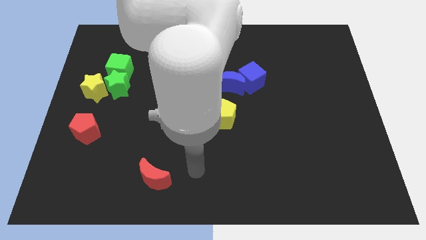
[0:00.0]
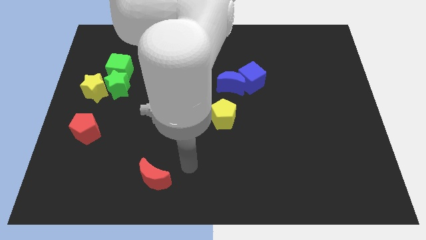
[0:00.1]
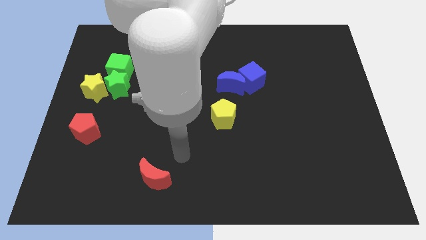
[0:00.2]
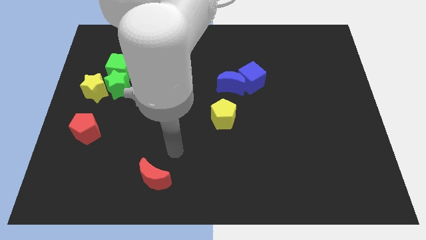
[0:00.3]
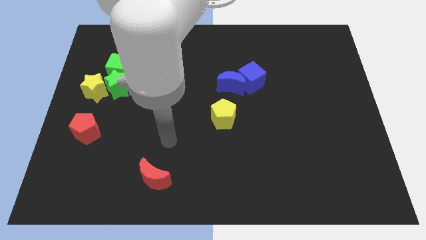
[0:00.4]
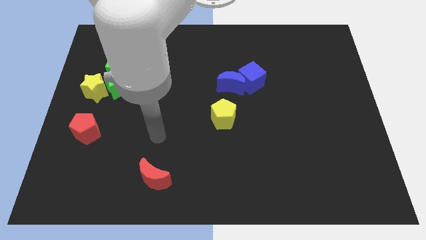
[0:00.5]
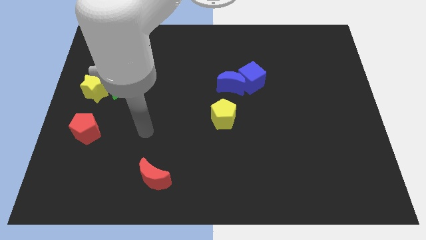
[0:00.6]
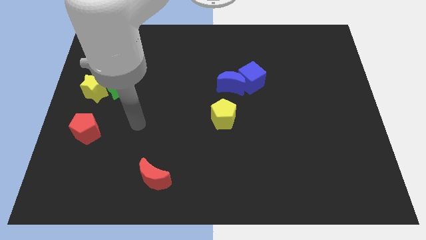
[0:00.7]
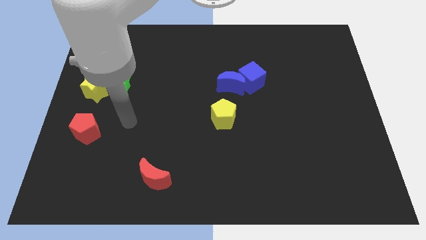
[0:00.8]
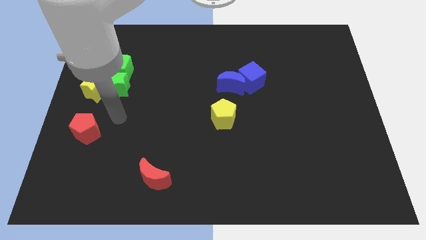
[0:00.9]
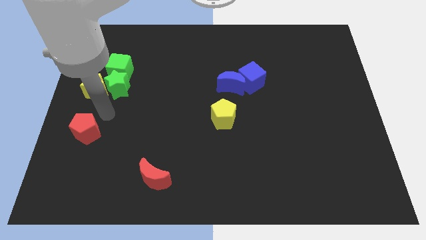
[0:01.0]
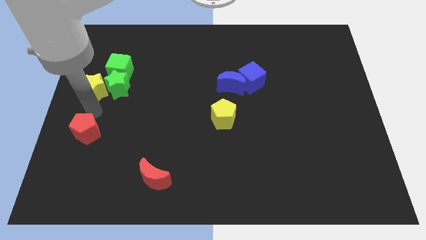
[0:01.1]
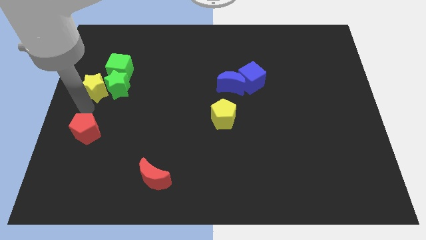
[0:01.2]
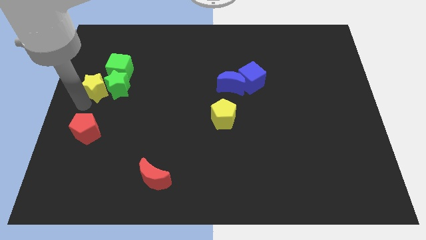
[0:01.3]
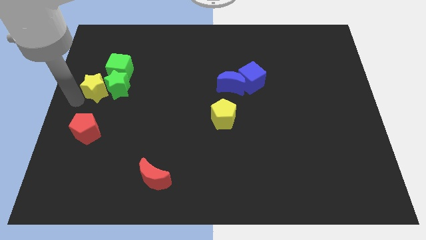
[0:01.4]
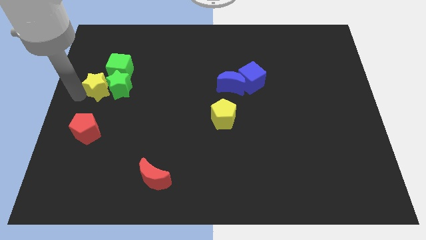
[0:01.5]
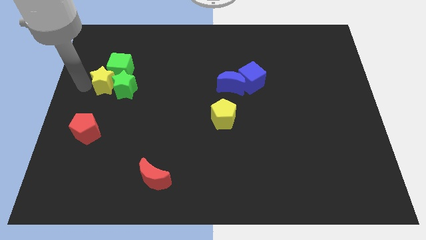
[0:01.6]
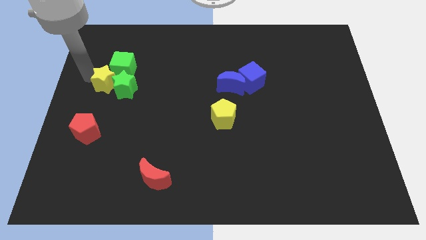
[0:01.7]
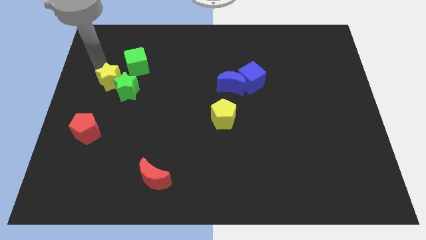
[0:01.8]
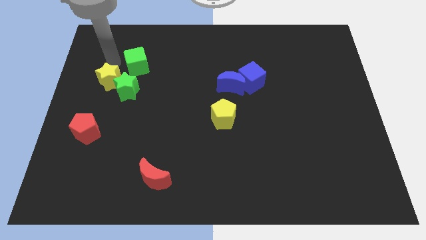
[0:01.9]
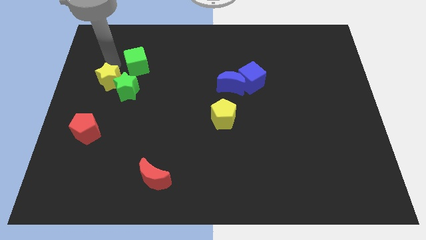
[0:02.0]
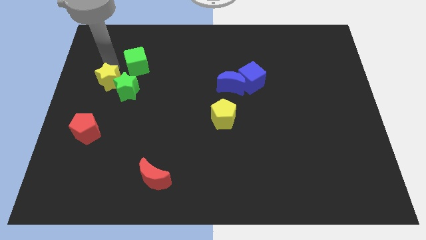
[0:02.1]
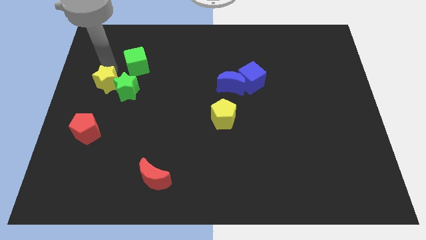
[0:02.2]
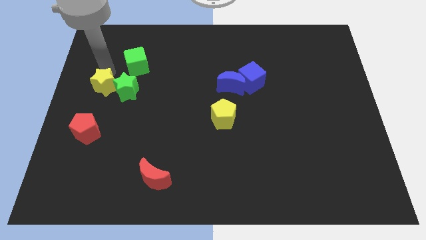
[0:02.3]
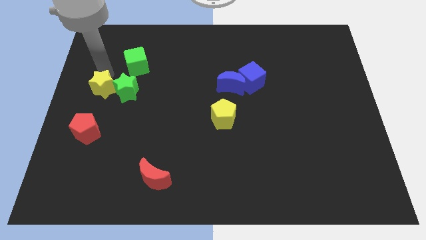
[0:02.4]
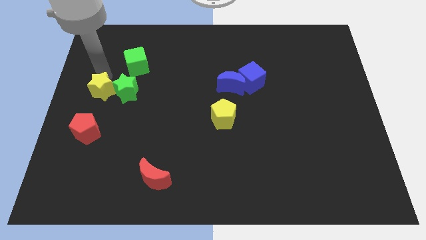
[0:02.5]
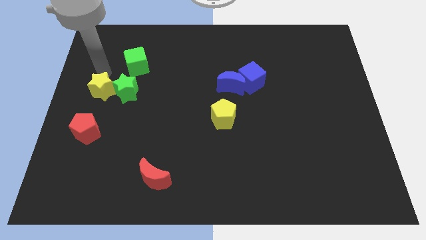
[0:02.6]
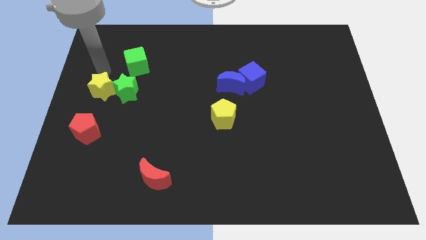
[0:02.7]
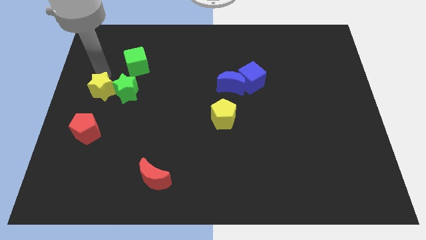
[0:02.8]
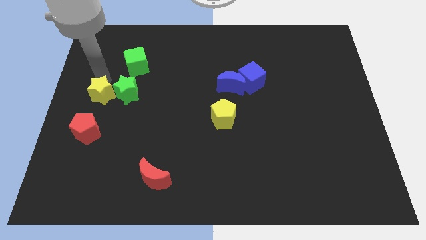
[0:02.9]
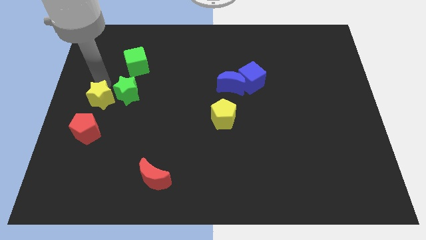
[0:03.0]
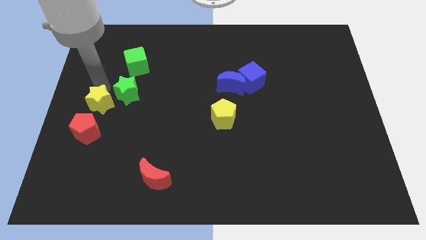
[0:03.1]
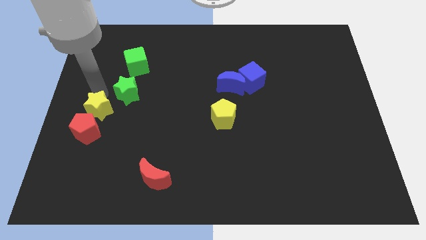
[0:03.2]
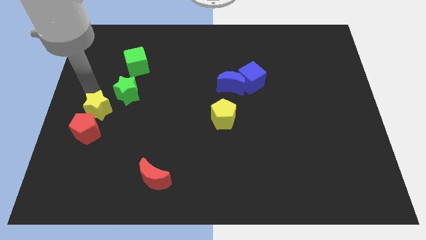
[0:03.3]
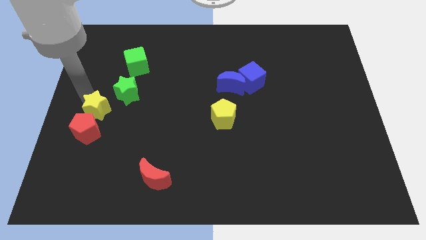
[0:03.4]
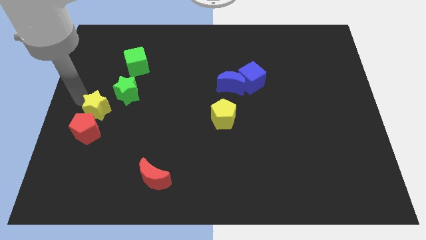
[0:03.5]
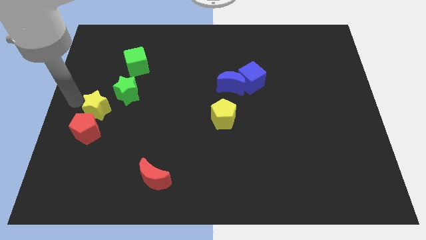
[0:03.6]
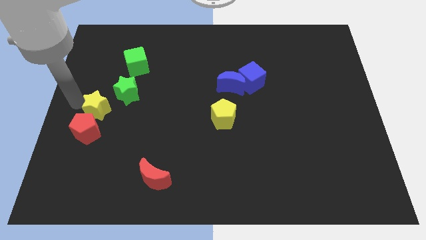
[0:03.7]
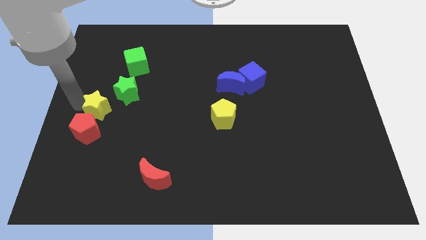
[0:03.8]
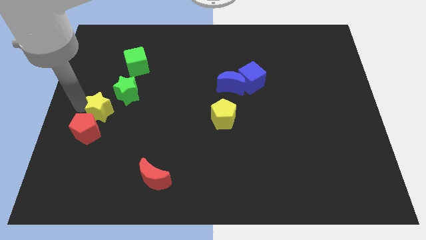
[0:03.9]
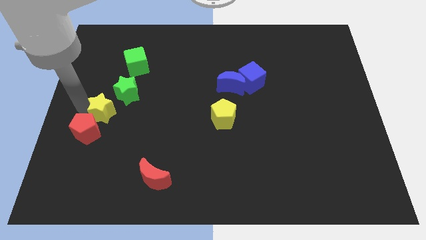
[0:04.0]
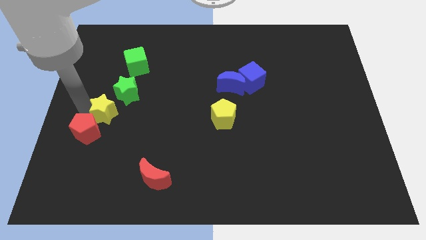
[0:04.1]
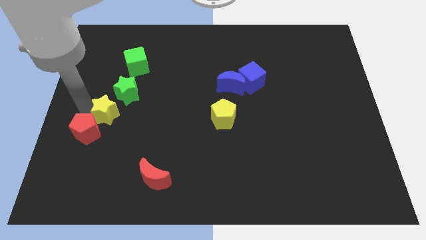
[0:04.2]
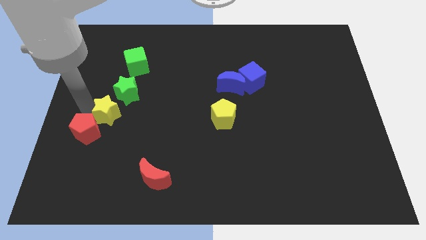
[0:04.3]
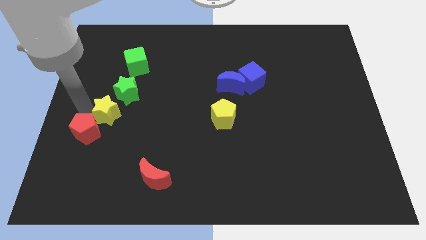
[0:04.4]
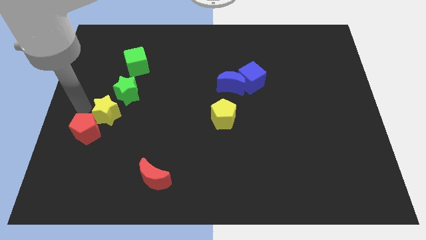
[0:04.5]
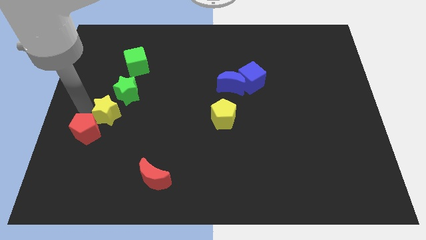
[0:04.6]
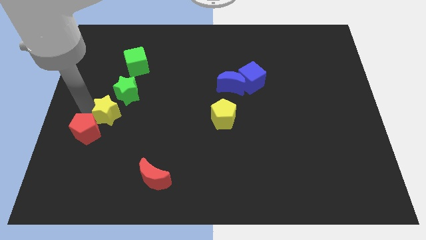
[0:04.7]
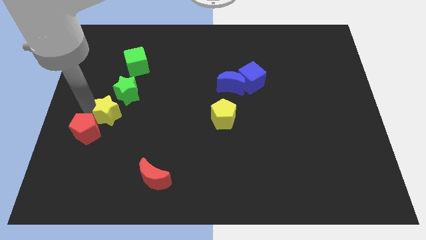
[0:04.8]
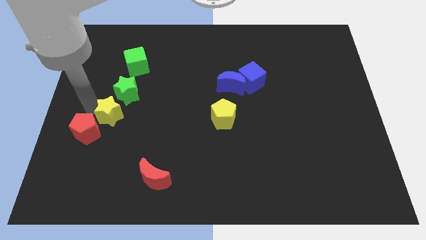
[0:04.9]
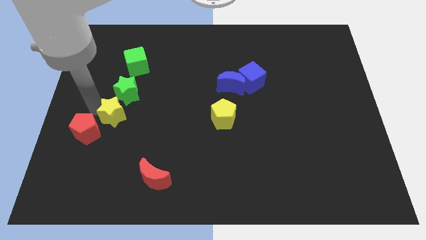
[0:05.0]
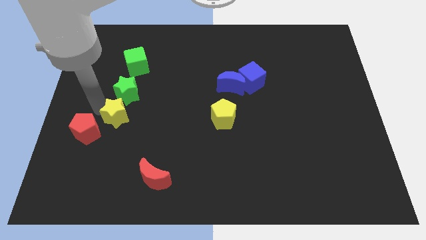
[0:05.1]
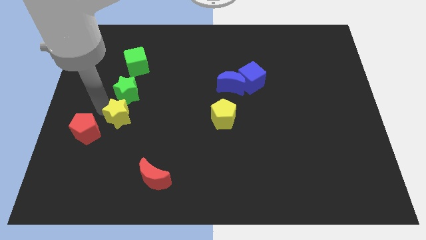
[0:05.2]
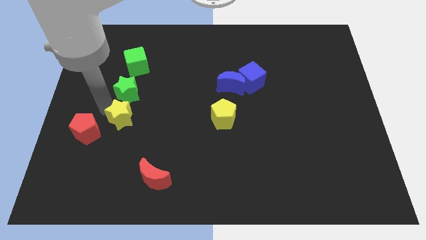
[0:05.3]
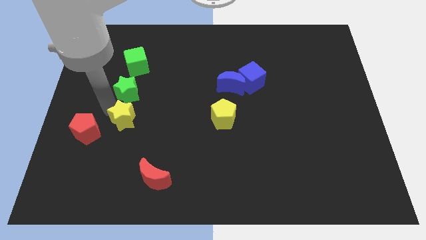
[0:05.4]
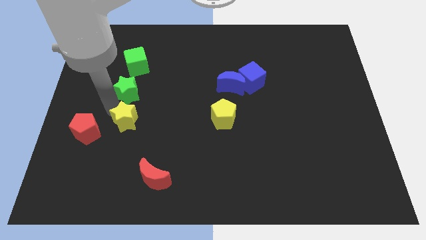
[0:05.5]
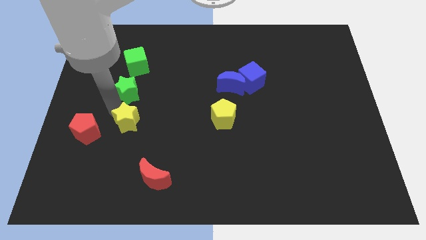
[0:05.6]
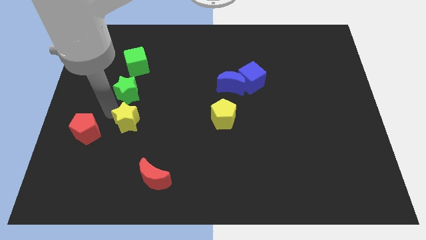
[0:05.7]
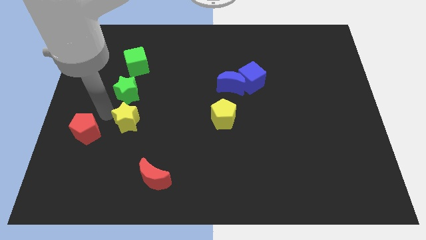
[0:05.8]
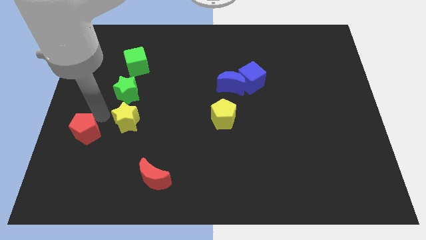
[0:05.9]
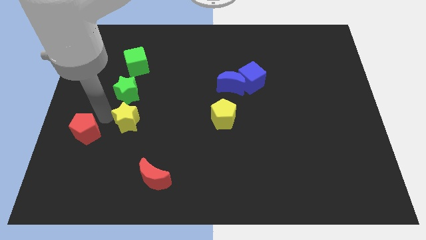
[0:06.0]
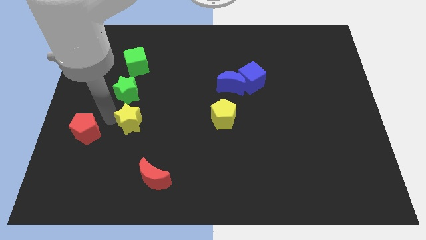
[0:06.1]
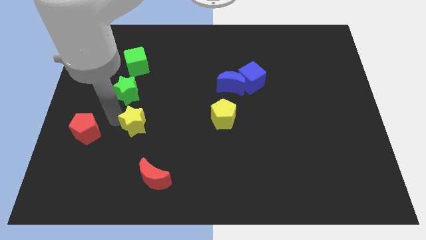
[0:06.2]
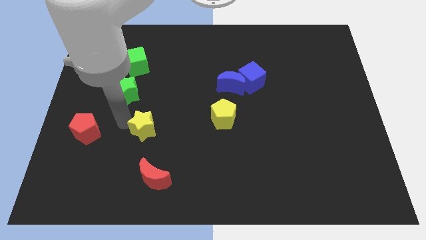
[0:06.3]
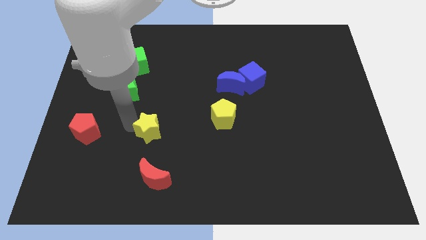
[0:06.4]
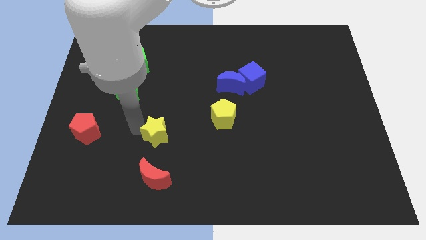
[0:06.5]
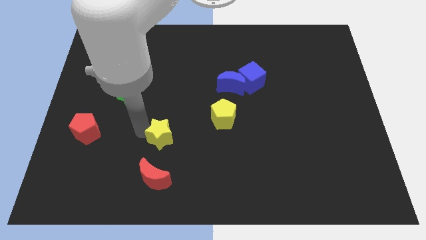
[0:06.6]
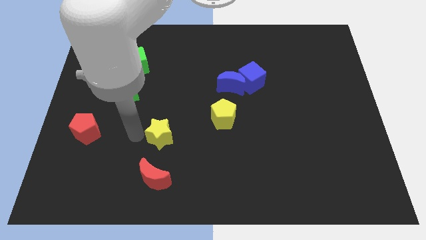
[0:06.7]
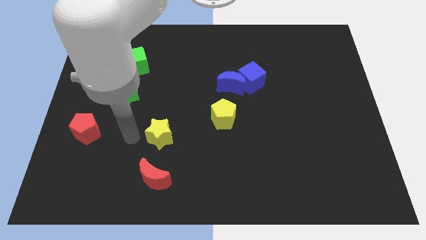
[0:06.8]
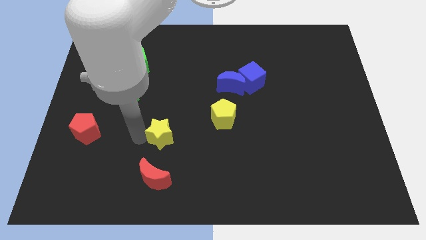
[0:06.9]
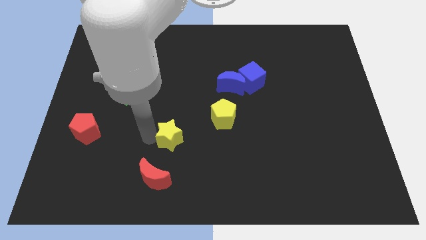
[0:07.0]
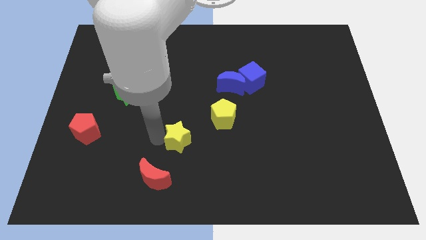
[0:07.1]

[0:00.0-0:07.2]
move the yellow star diagonally down and to the left of the yellow pentagon

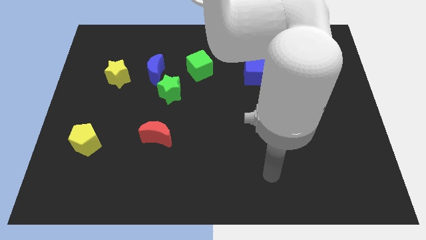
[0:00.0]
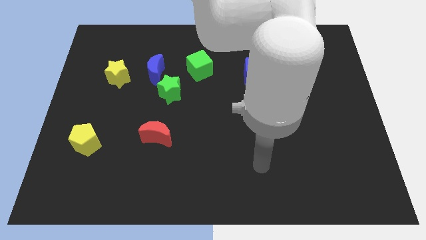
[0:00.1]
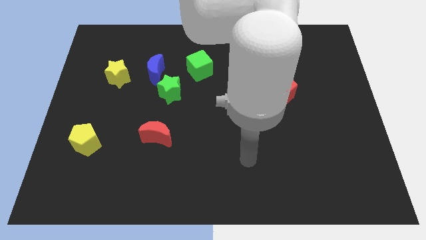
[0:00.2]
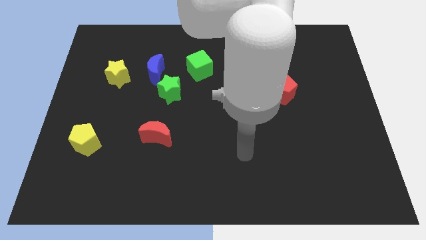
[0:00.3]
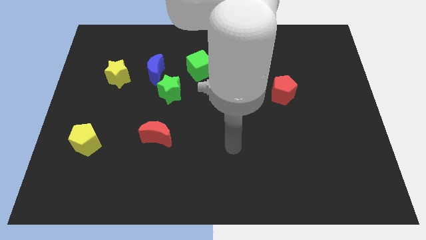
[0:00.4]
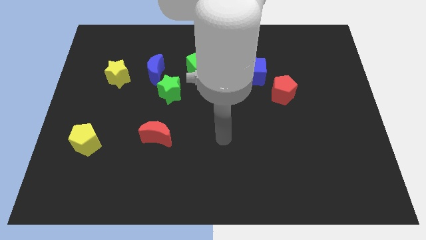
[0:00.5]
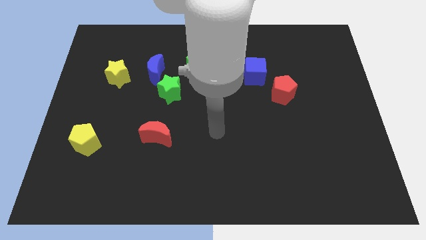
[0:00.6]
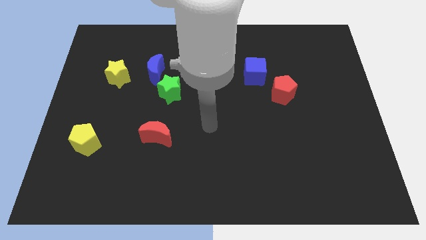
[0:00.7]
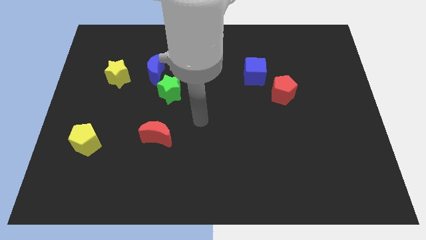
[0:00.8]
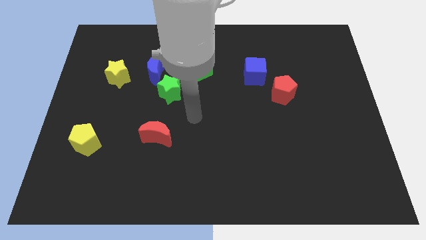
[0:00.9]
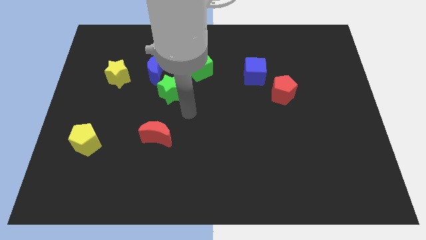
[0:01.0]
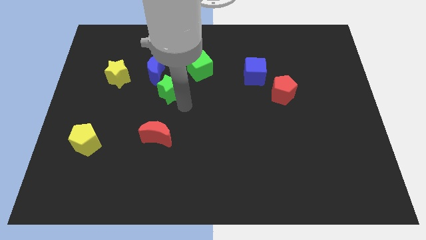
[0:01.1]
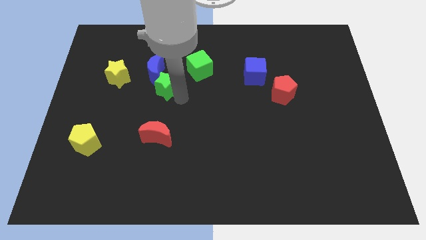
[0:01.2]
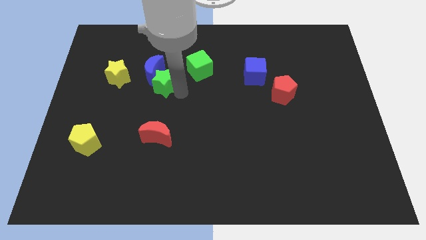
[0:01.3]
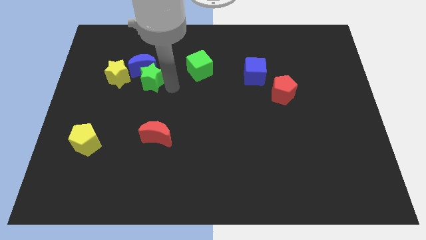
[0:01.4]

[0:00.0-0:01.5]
move the blue moon to the top right side of the yellow star

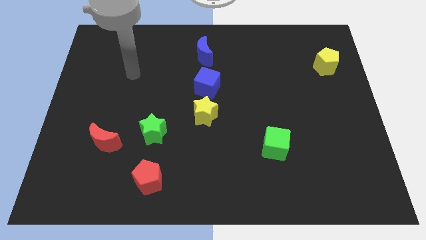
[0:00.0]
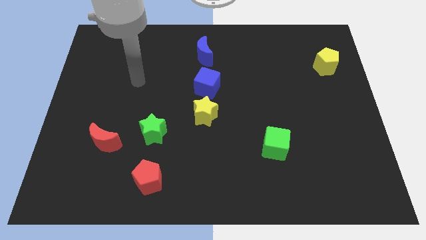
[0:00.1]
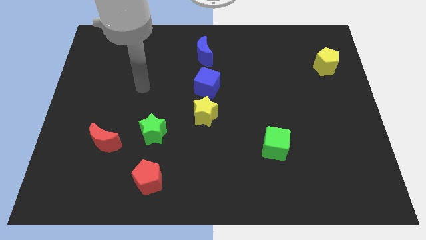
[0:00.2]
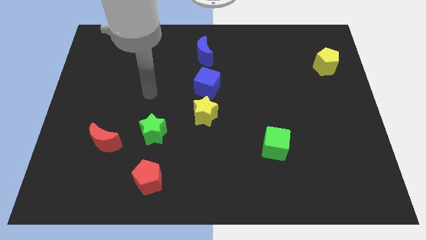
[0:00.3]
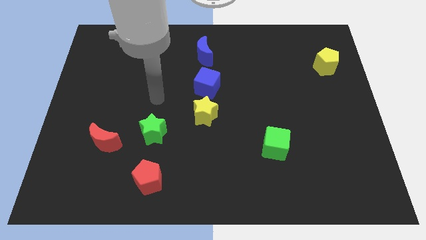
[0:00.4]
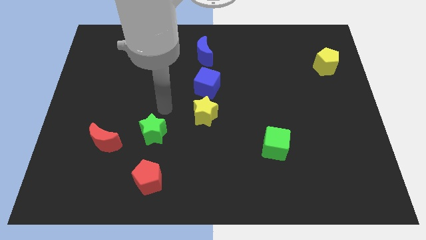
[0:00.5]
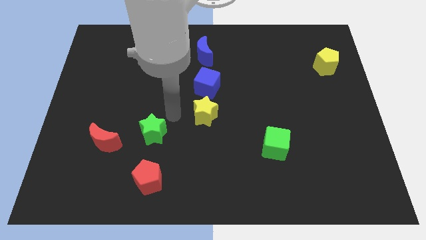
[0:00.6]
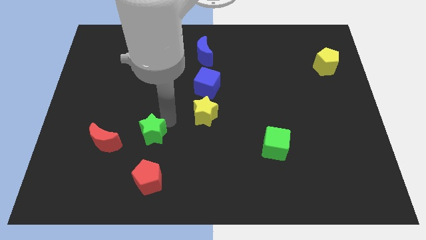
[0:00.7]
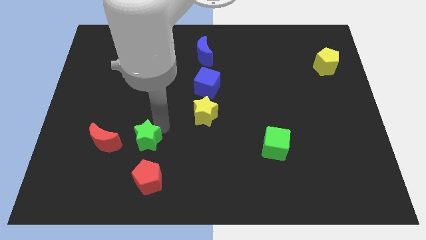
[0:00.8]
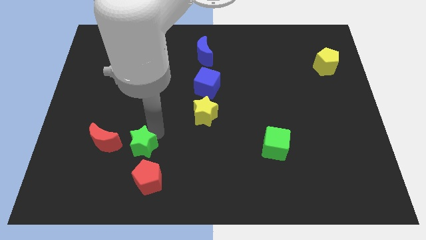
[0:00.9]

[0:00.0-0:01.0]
put the green star to the top left side of the red pentagon
